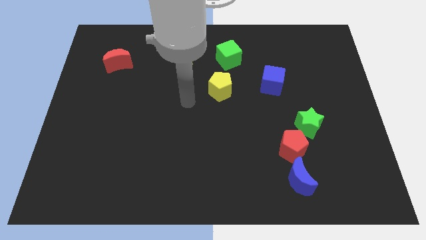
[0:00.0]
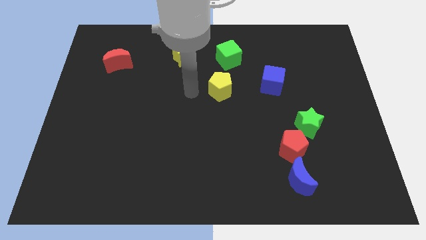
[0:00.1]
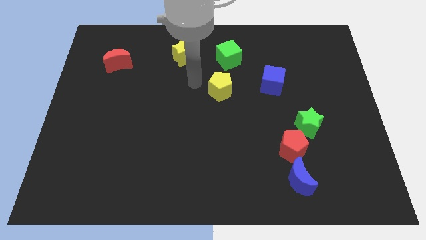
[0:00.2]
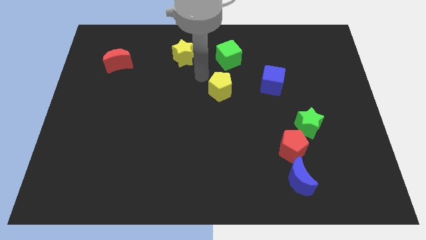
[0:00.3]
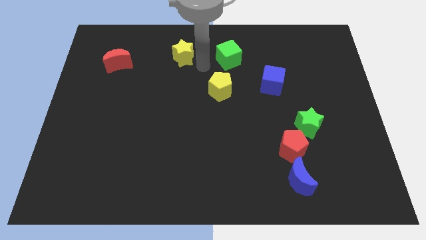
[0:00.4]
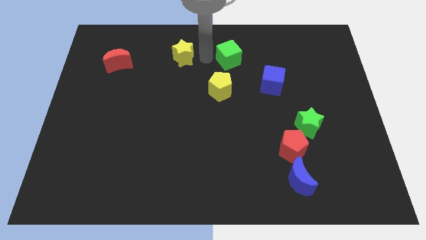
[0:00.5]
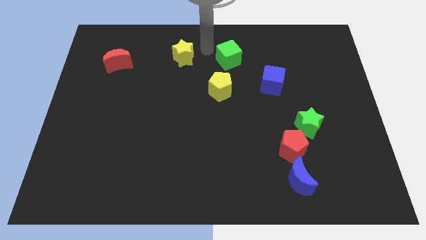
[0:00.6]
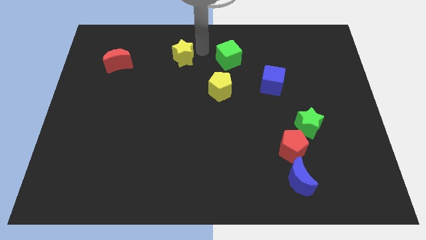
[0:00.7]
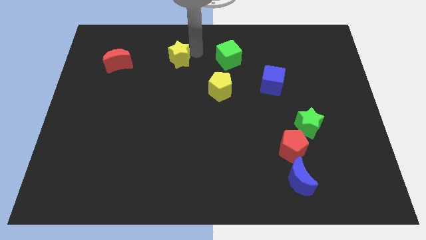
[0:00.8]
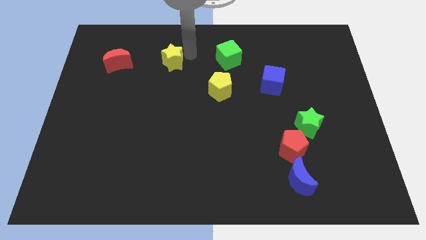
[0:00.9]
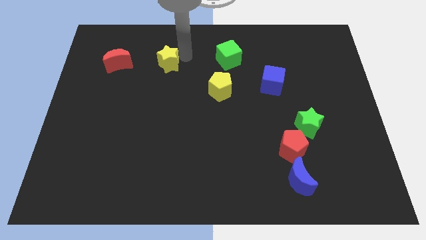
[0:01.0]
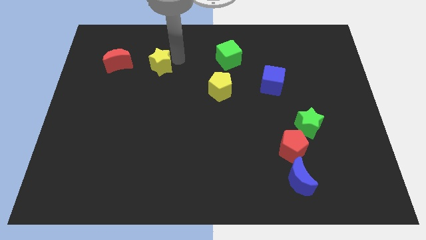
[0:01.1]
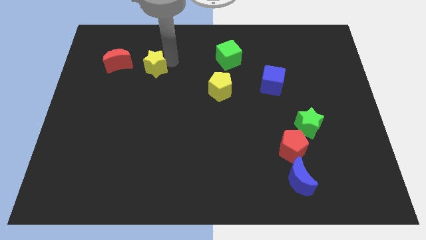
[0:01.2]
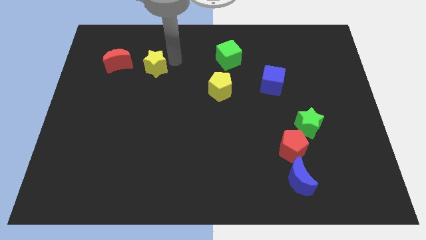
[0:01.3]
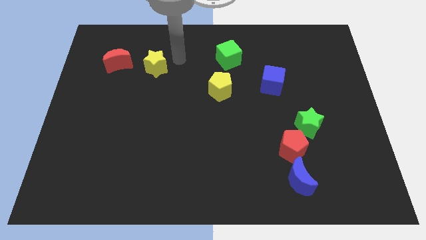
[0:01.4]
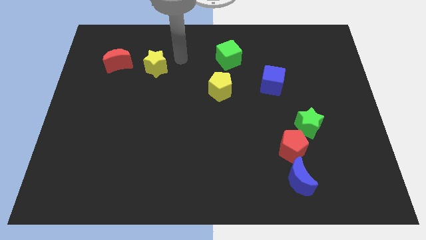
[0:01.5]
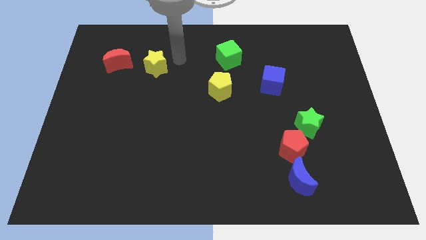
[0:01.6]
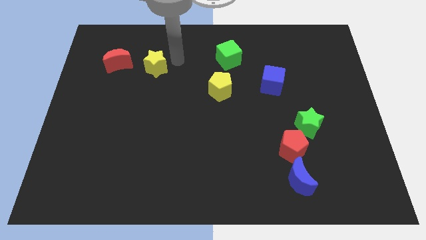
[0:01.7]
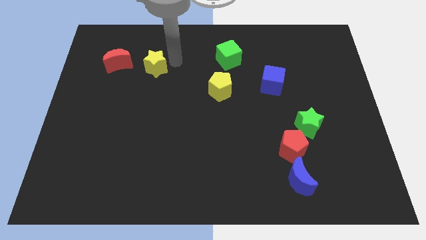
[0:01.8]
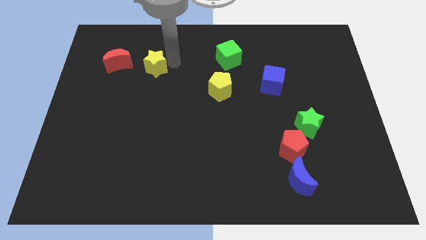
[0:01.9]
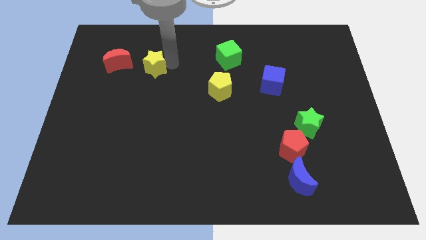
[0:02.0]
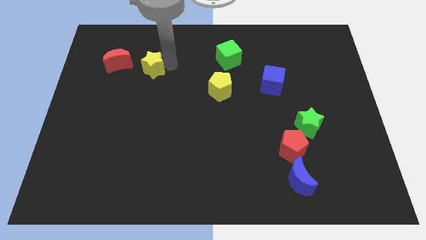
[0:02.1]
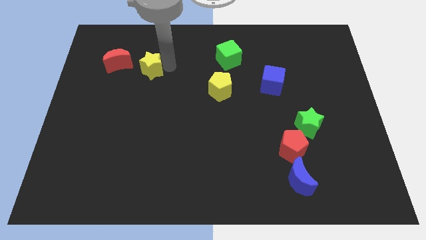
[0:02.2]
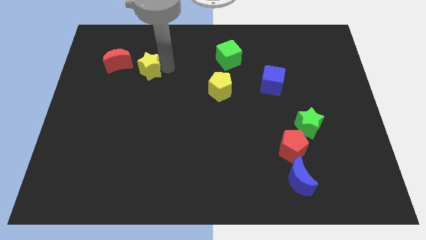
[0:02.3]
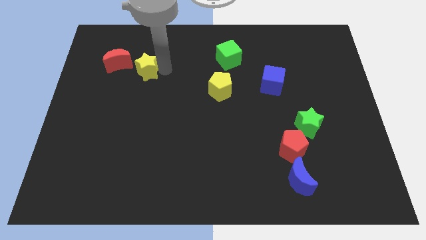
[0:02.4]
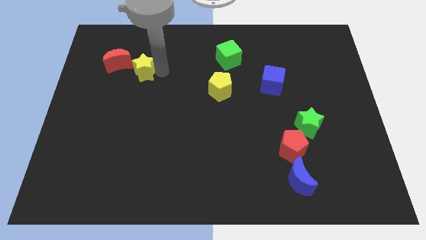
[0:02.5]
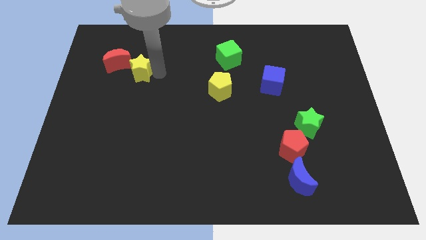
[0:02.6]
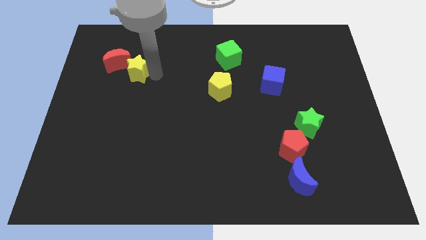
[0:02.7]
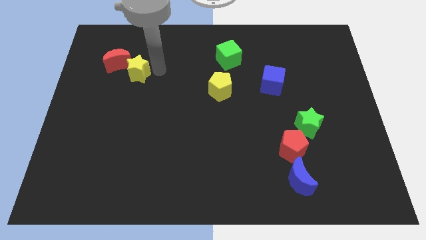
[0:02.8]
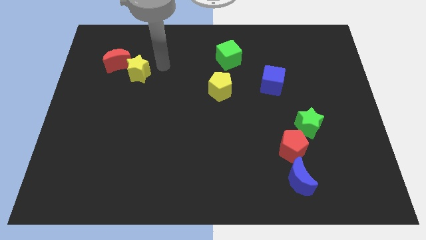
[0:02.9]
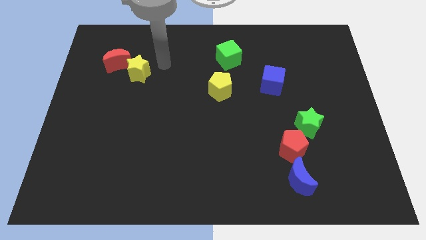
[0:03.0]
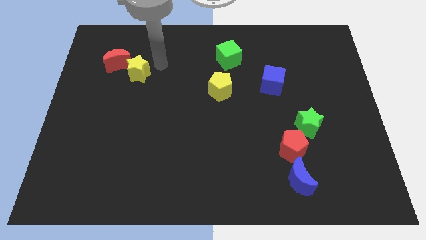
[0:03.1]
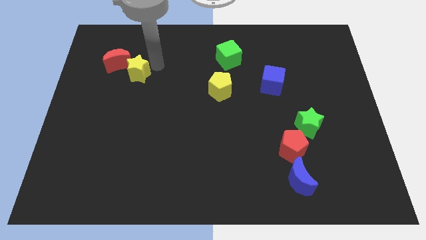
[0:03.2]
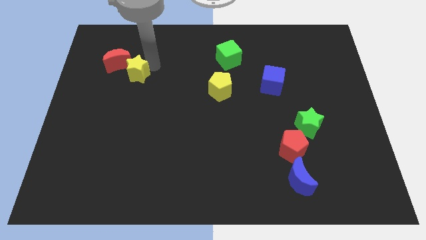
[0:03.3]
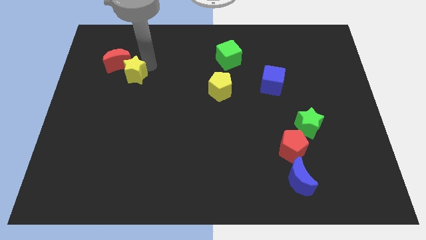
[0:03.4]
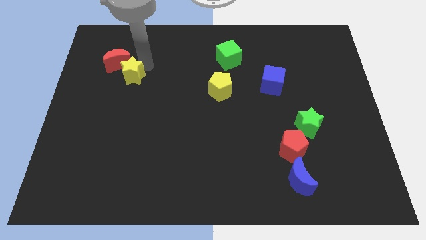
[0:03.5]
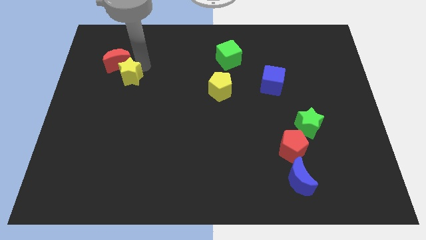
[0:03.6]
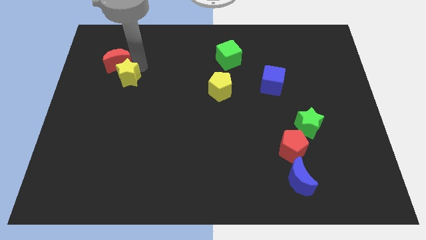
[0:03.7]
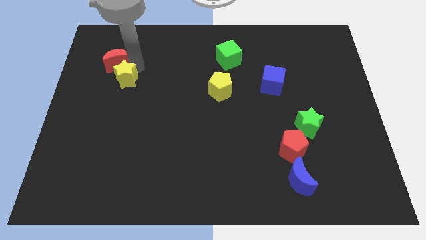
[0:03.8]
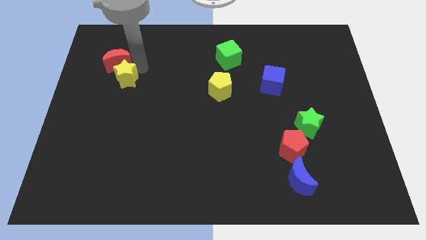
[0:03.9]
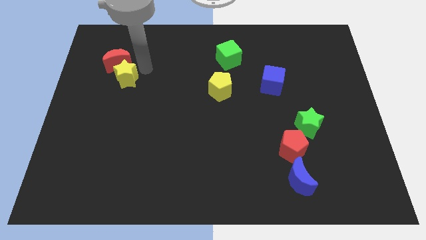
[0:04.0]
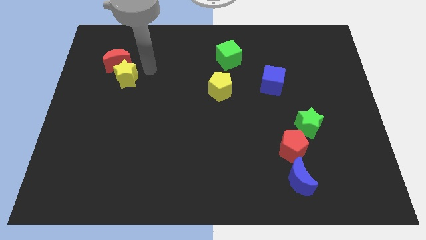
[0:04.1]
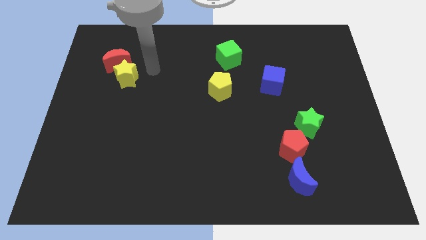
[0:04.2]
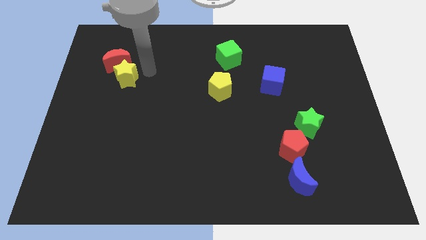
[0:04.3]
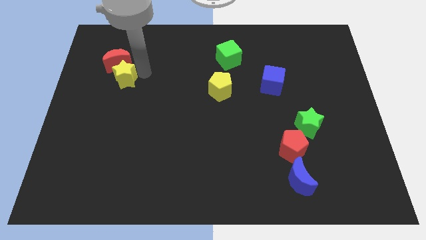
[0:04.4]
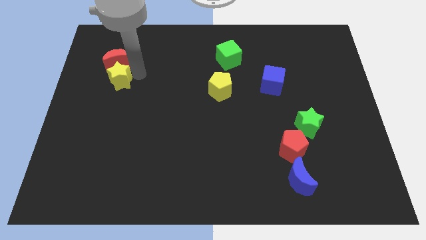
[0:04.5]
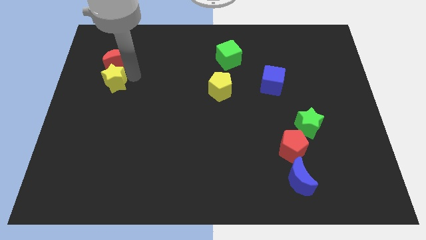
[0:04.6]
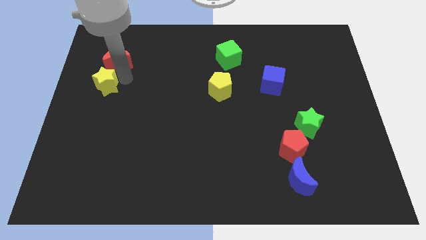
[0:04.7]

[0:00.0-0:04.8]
put the yellow star to the center left

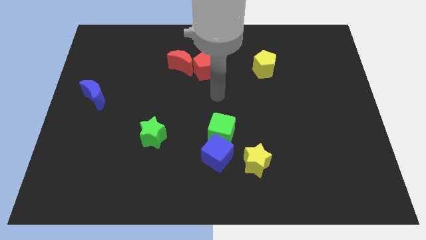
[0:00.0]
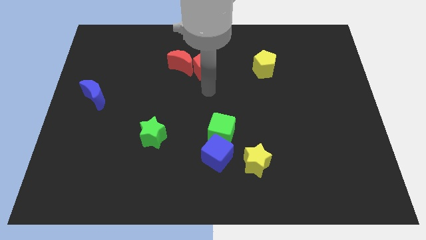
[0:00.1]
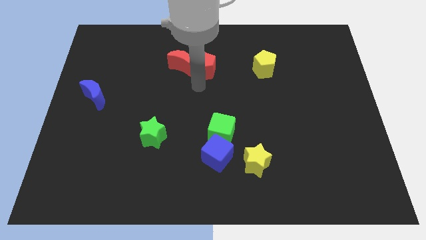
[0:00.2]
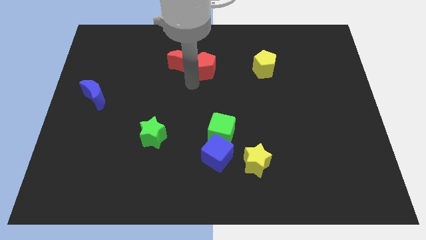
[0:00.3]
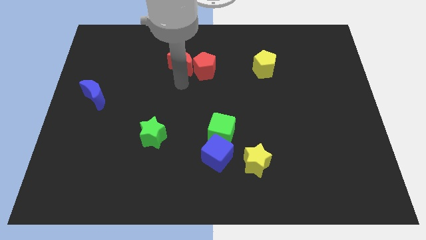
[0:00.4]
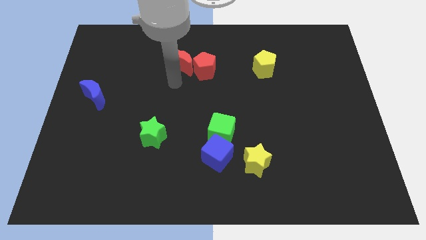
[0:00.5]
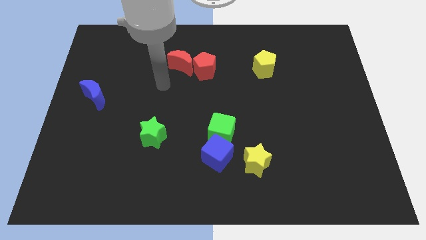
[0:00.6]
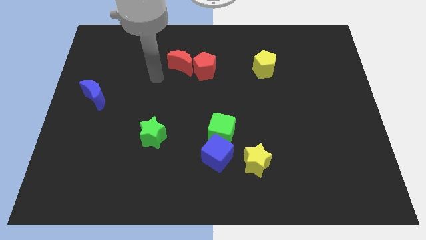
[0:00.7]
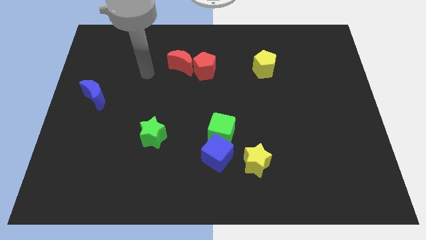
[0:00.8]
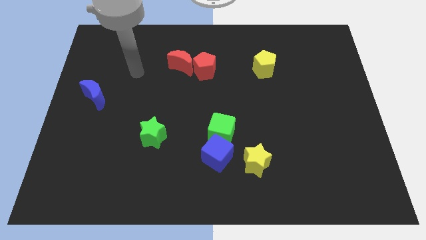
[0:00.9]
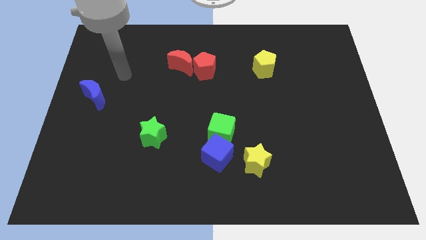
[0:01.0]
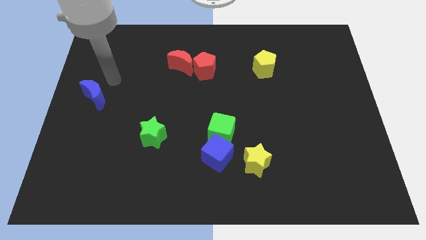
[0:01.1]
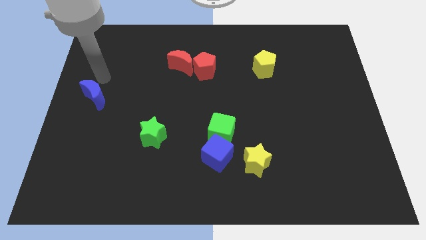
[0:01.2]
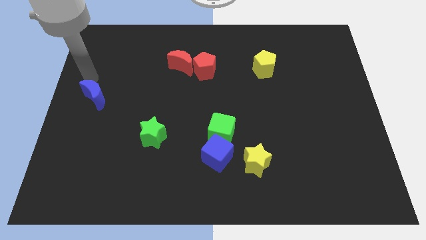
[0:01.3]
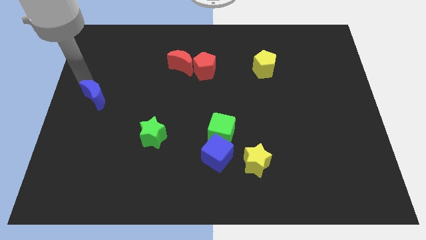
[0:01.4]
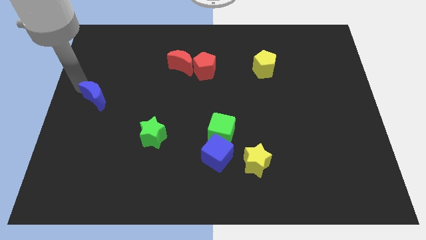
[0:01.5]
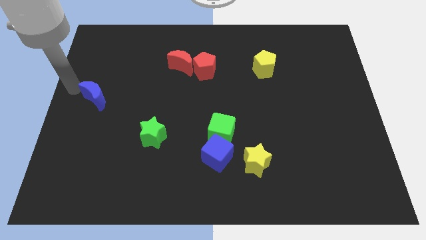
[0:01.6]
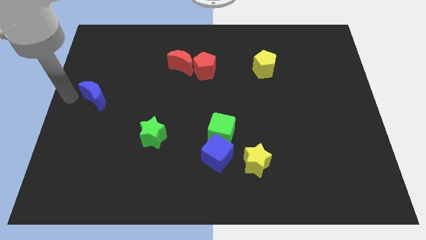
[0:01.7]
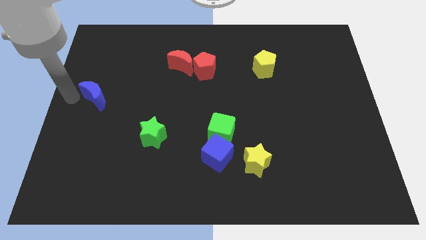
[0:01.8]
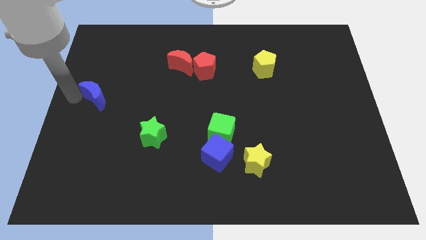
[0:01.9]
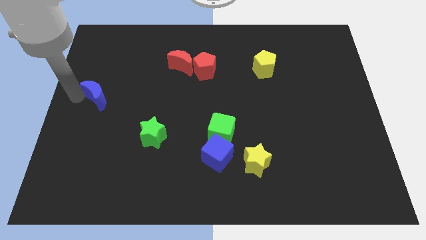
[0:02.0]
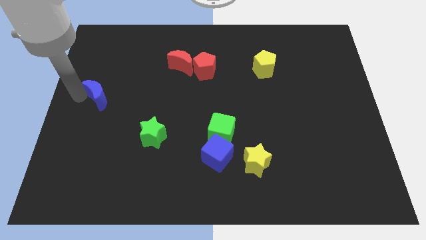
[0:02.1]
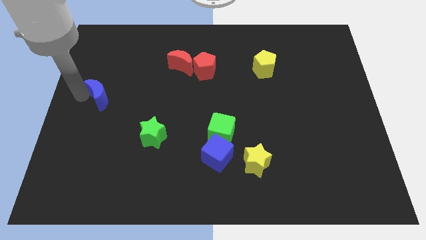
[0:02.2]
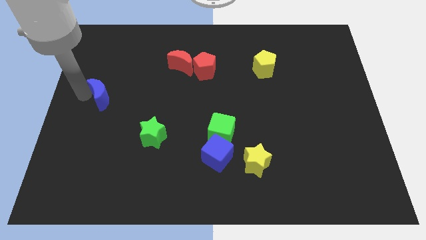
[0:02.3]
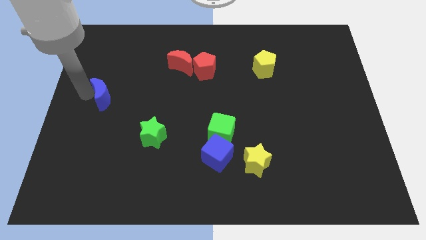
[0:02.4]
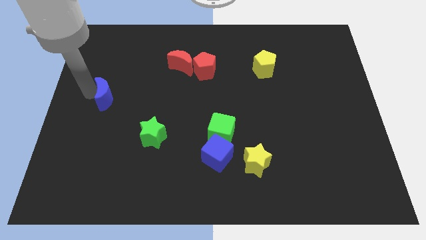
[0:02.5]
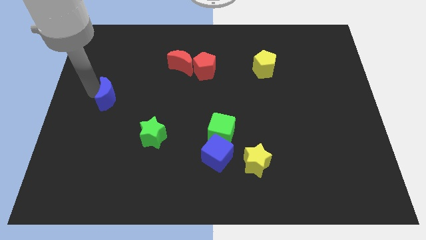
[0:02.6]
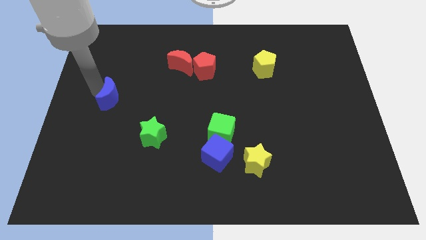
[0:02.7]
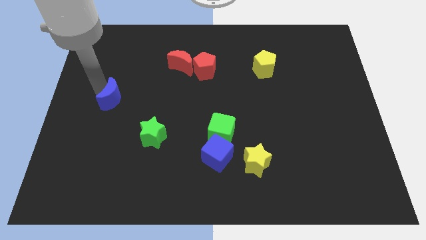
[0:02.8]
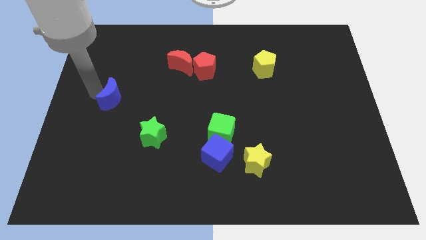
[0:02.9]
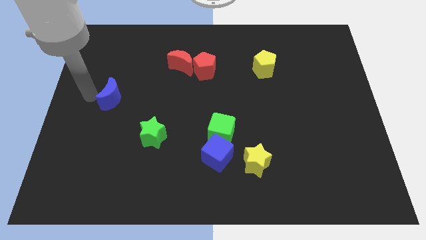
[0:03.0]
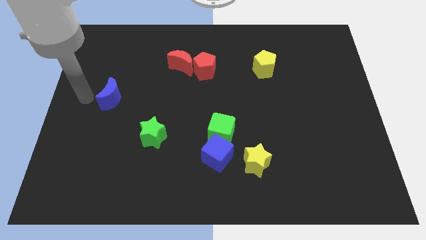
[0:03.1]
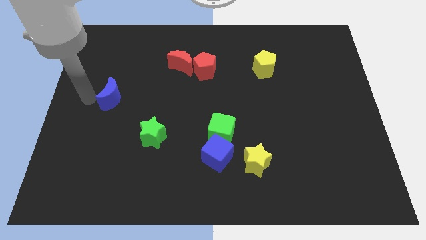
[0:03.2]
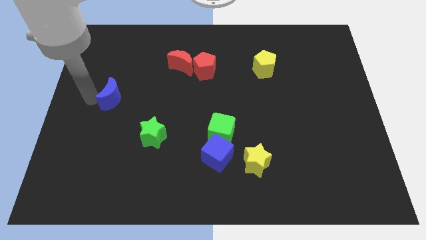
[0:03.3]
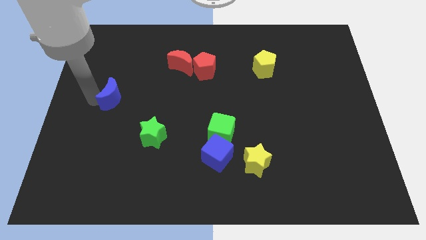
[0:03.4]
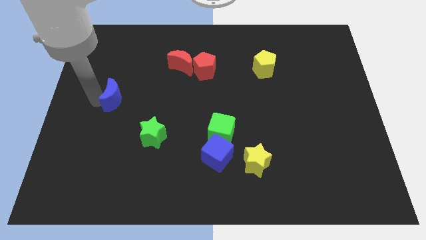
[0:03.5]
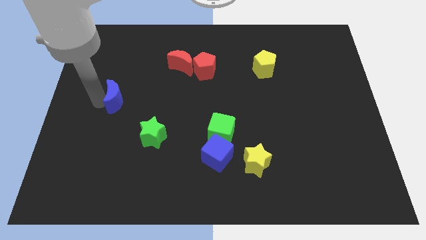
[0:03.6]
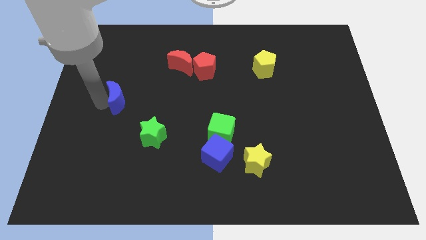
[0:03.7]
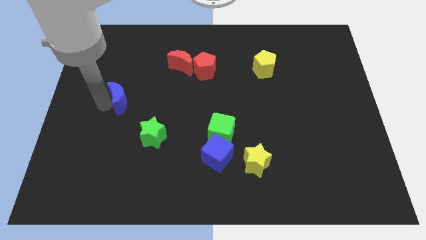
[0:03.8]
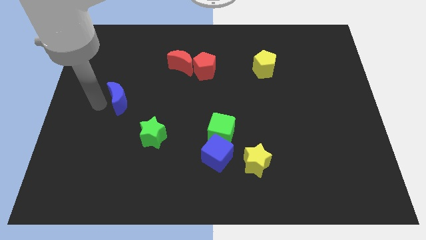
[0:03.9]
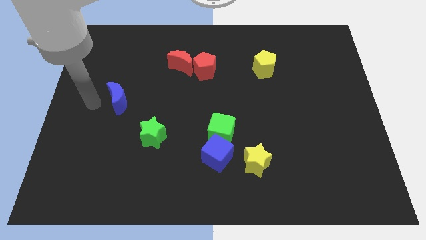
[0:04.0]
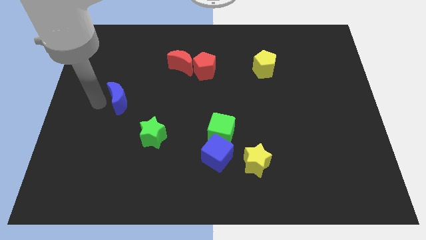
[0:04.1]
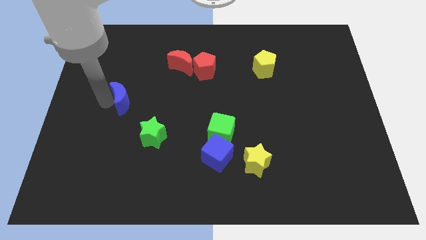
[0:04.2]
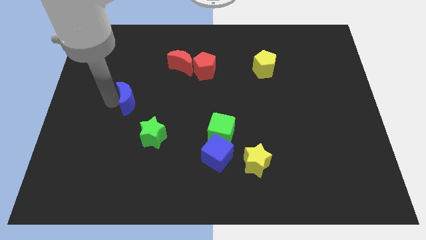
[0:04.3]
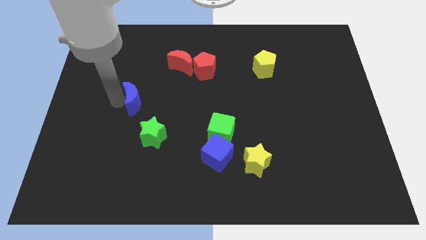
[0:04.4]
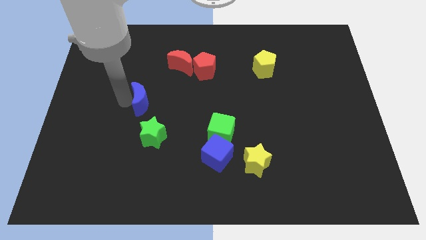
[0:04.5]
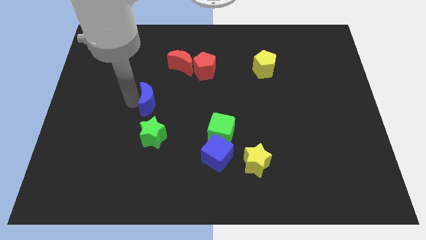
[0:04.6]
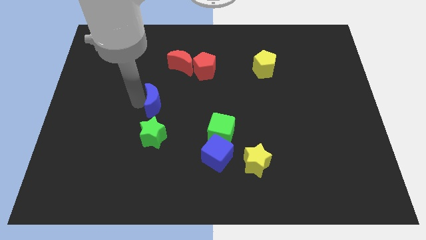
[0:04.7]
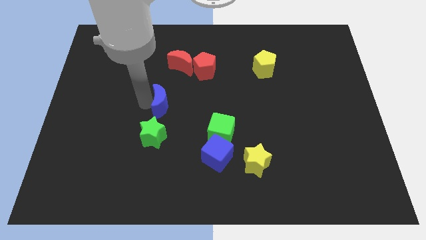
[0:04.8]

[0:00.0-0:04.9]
move the blue moon to the center
